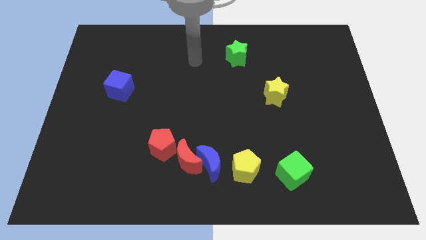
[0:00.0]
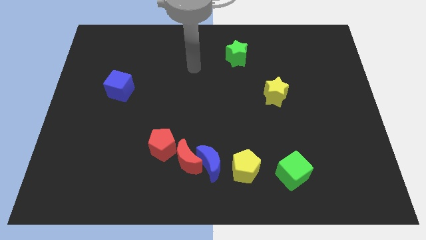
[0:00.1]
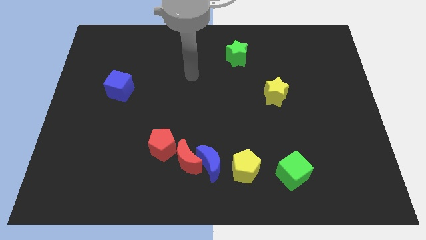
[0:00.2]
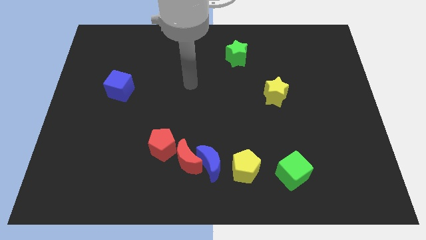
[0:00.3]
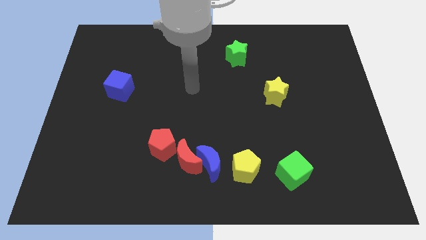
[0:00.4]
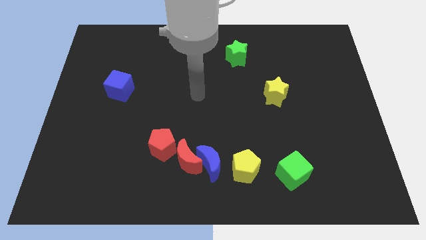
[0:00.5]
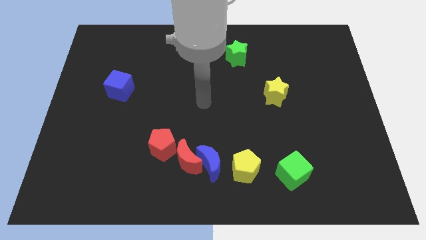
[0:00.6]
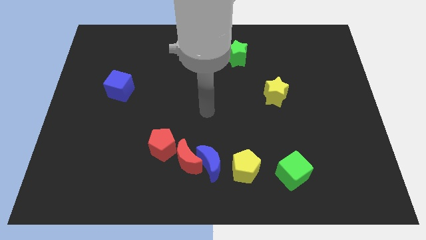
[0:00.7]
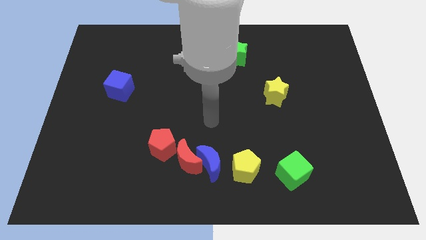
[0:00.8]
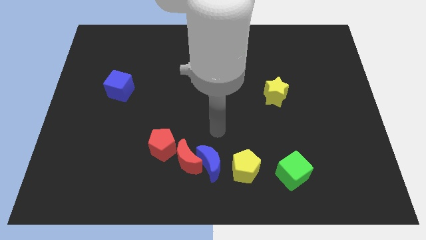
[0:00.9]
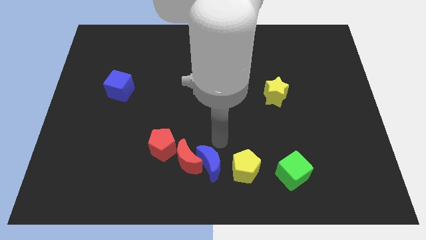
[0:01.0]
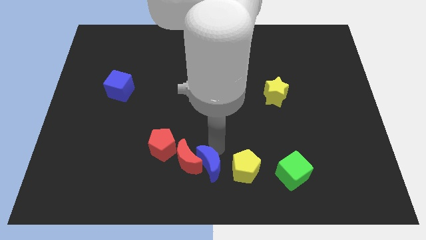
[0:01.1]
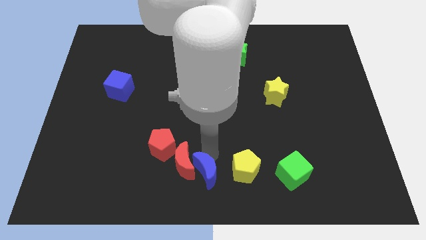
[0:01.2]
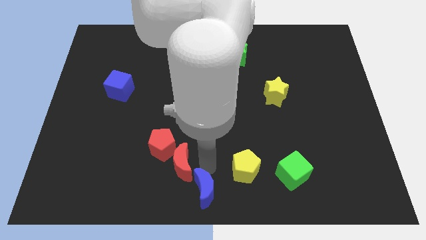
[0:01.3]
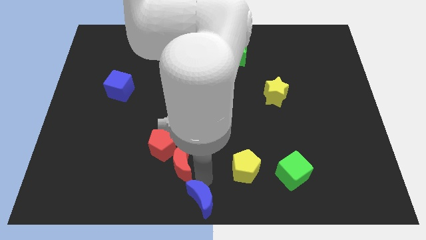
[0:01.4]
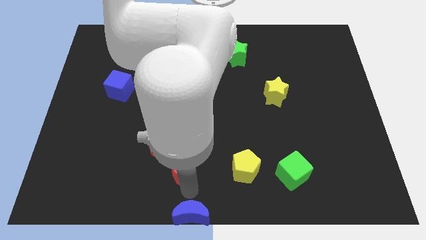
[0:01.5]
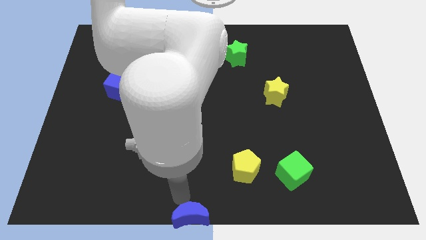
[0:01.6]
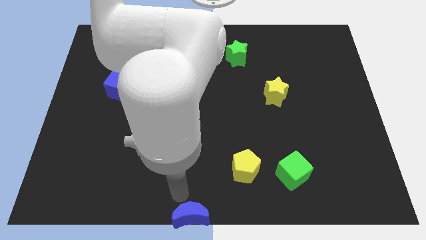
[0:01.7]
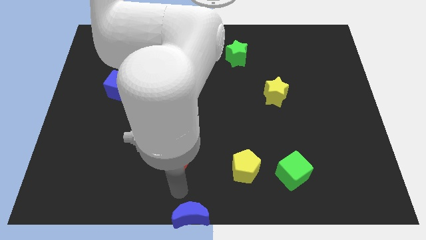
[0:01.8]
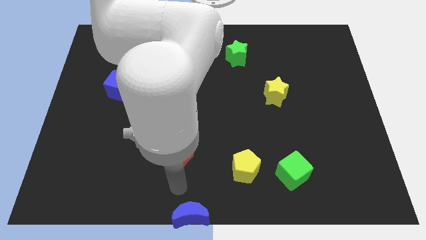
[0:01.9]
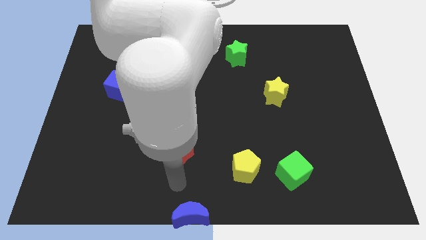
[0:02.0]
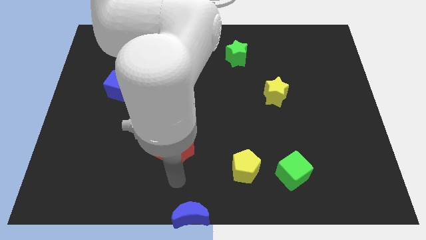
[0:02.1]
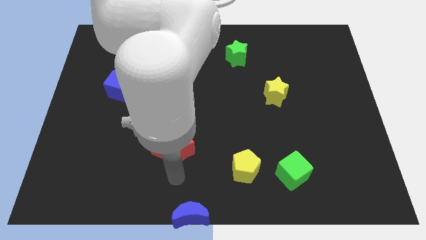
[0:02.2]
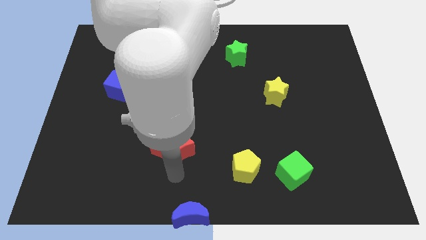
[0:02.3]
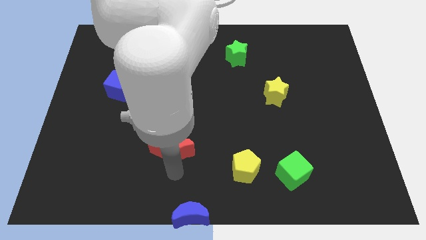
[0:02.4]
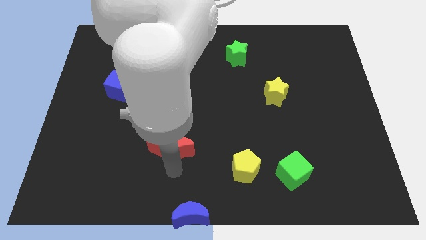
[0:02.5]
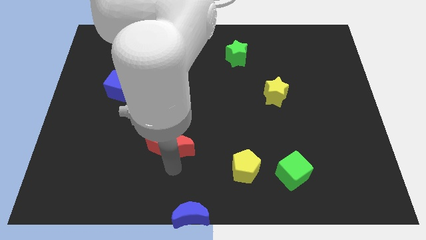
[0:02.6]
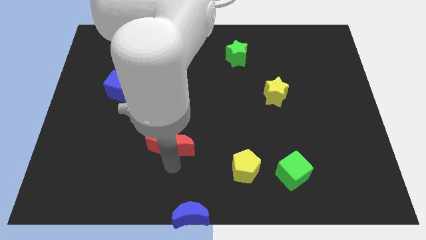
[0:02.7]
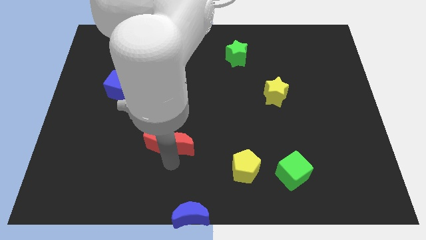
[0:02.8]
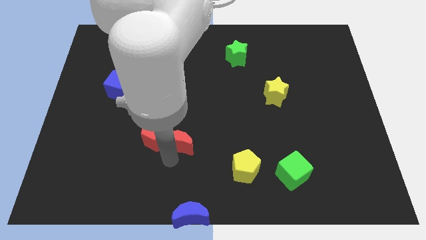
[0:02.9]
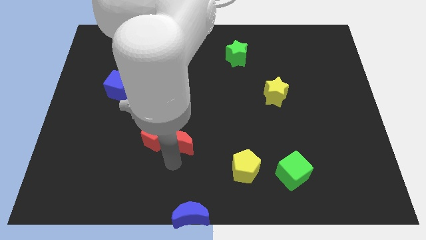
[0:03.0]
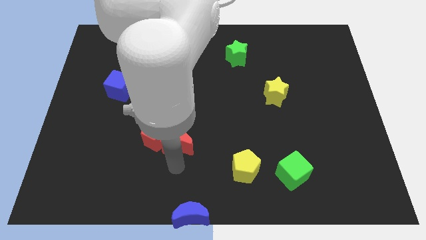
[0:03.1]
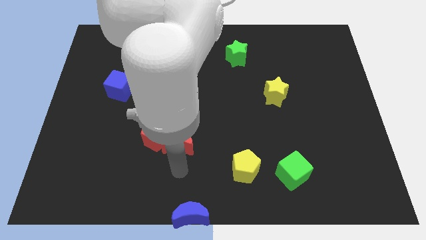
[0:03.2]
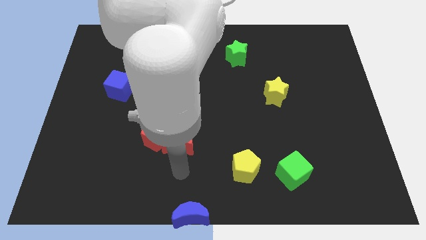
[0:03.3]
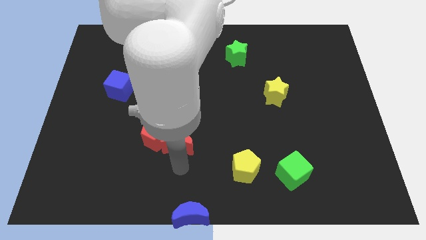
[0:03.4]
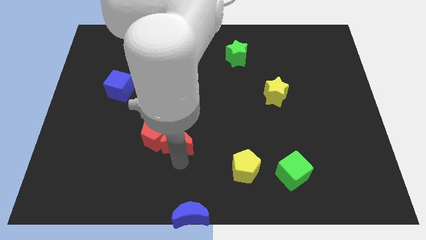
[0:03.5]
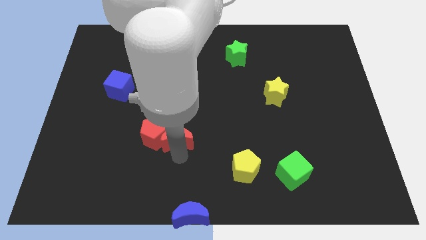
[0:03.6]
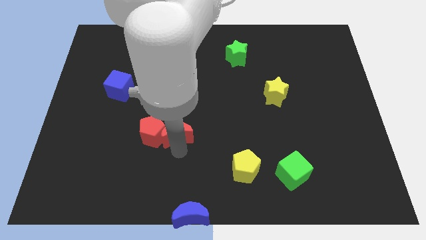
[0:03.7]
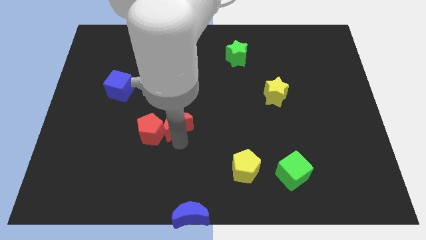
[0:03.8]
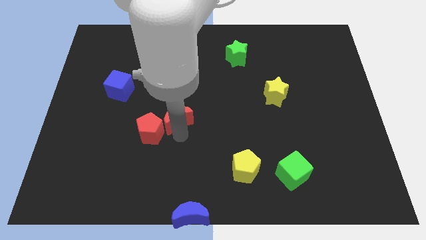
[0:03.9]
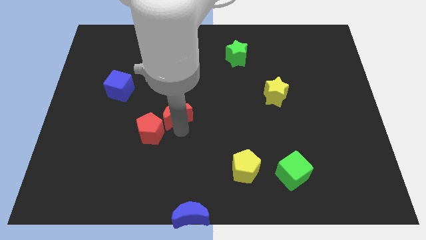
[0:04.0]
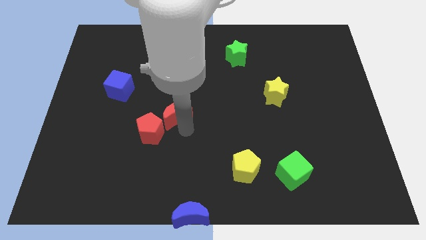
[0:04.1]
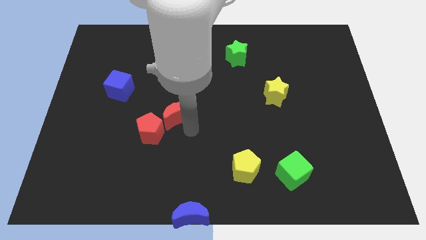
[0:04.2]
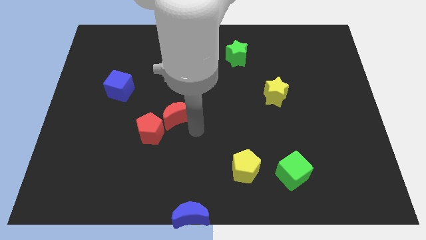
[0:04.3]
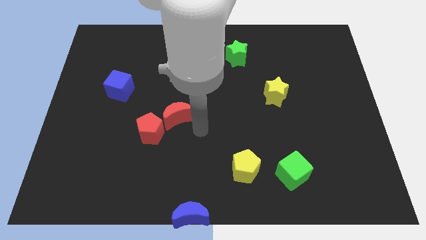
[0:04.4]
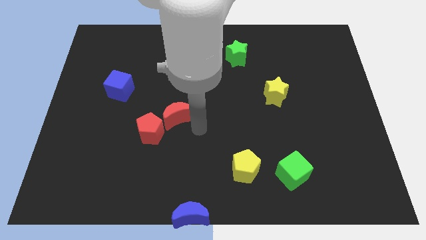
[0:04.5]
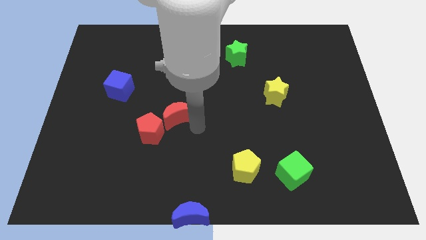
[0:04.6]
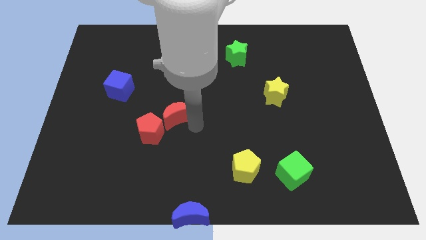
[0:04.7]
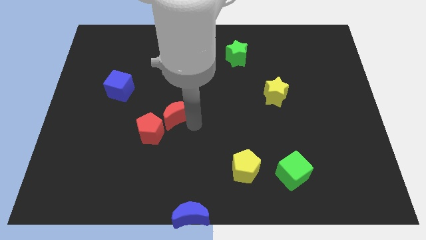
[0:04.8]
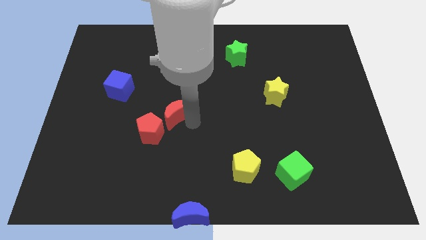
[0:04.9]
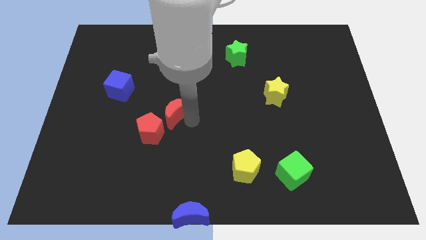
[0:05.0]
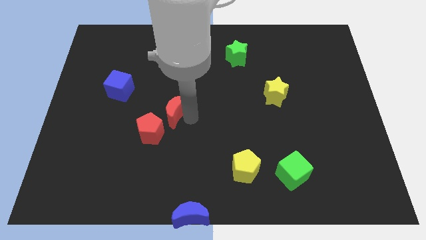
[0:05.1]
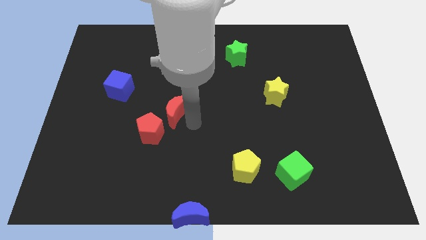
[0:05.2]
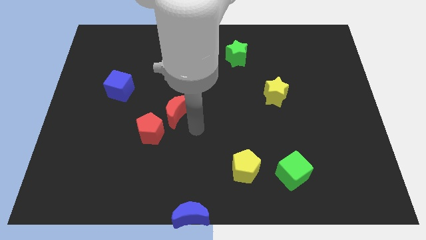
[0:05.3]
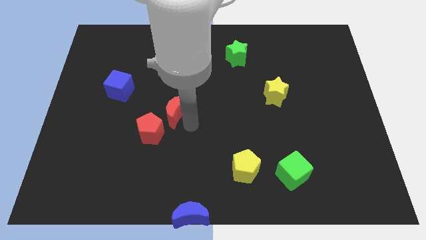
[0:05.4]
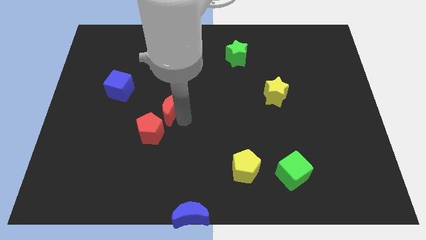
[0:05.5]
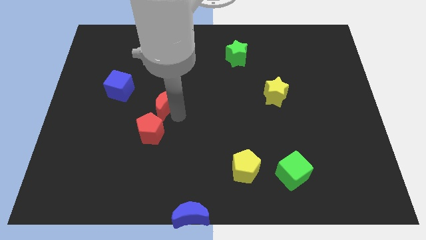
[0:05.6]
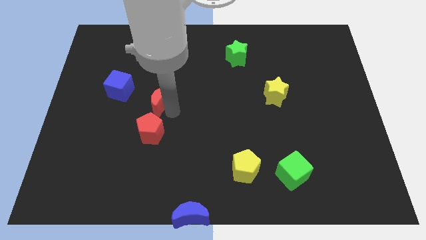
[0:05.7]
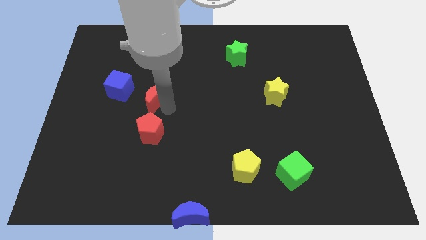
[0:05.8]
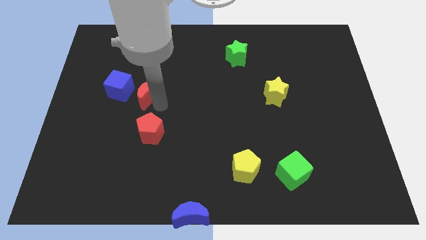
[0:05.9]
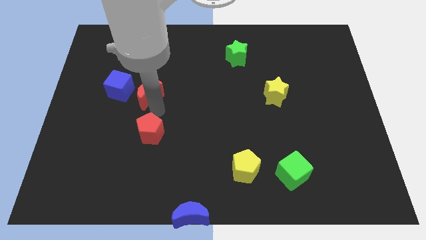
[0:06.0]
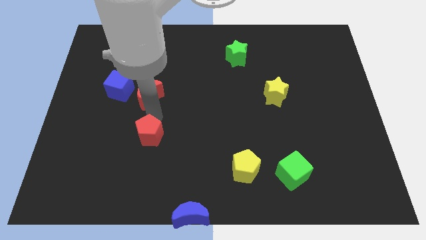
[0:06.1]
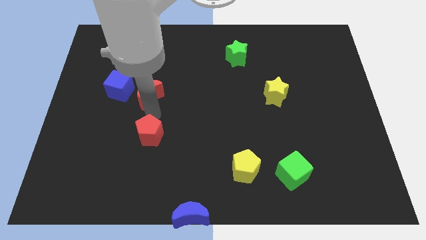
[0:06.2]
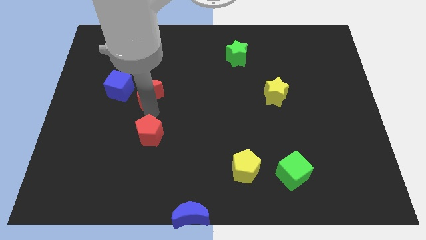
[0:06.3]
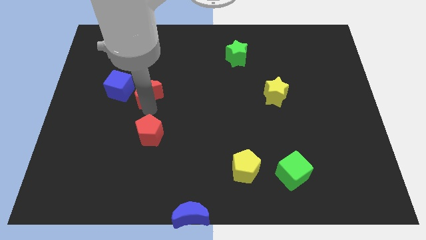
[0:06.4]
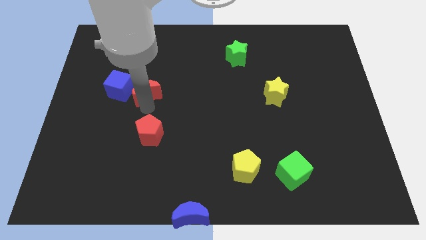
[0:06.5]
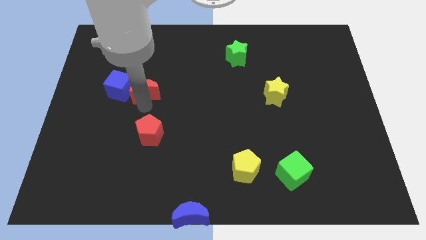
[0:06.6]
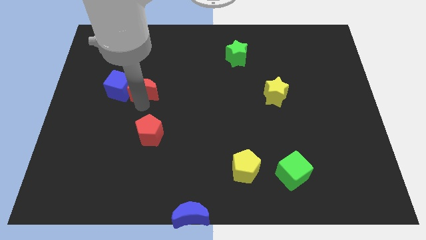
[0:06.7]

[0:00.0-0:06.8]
push the red moon to the top right of the blue cube
